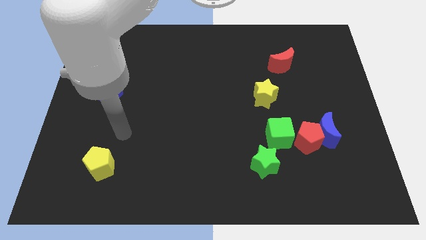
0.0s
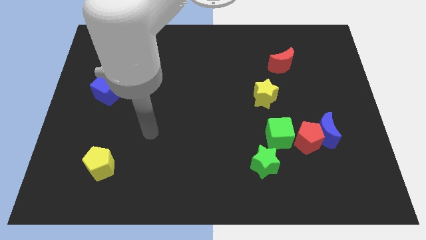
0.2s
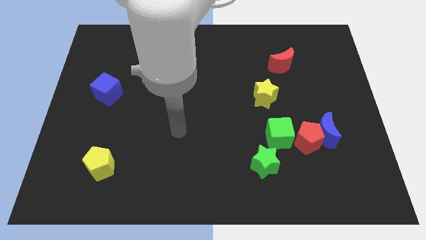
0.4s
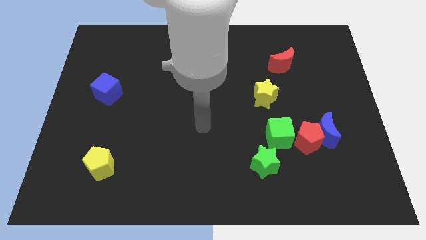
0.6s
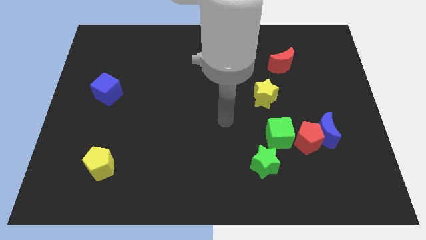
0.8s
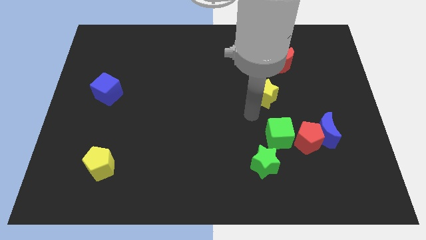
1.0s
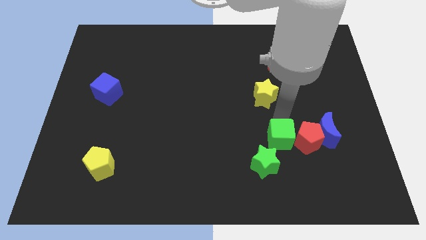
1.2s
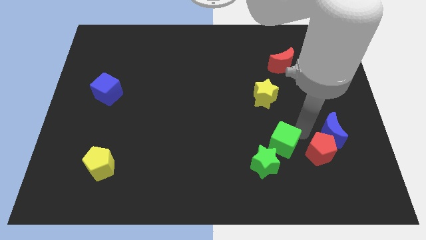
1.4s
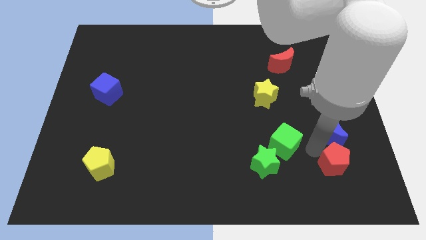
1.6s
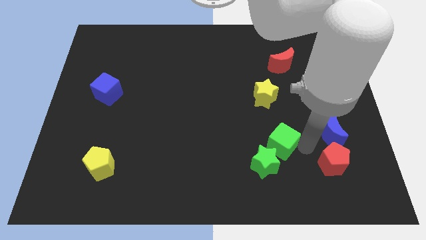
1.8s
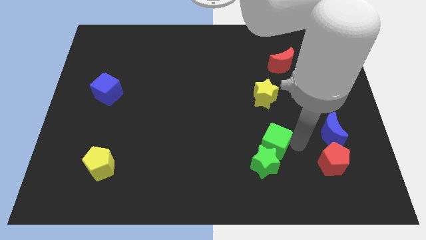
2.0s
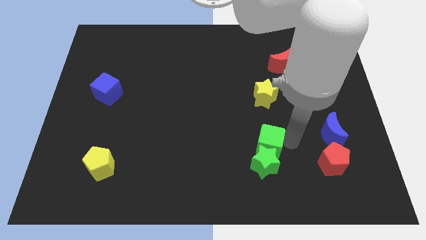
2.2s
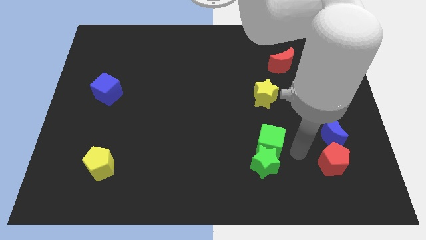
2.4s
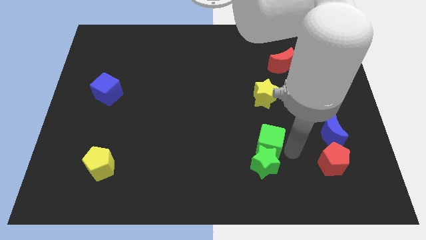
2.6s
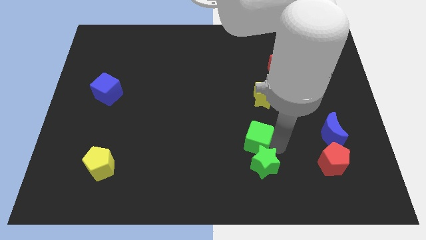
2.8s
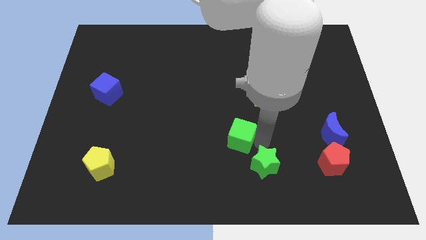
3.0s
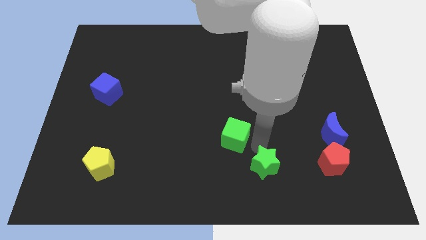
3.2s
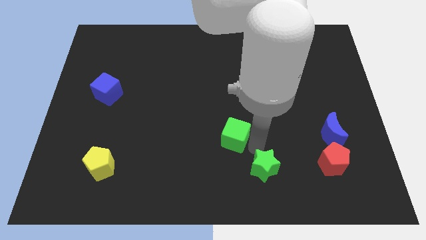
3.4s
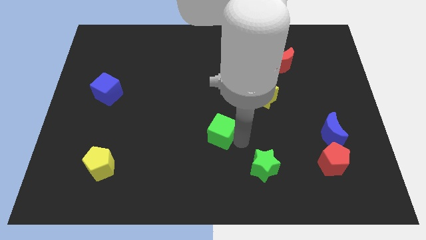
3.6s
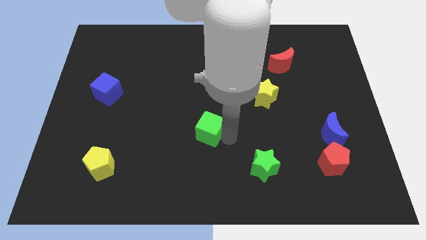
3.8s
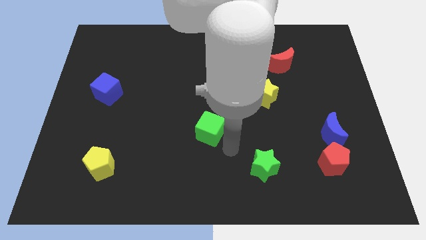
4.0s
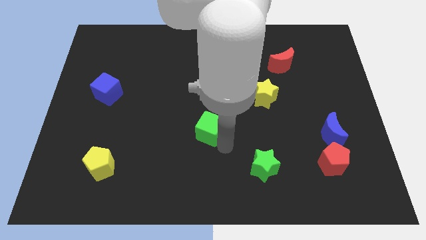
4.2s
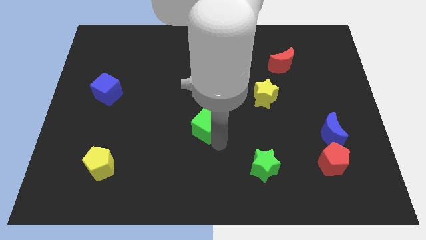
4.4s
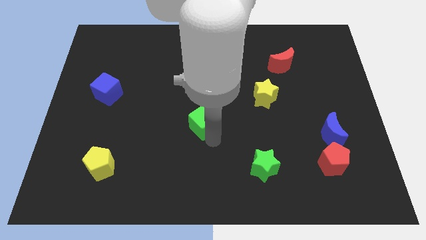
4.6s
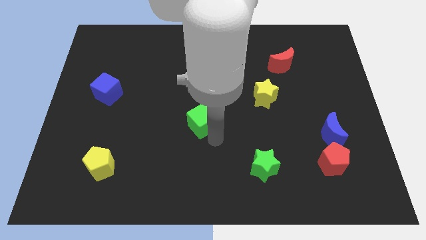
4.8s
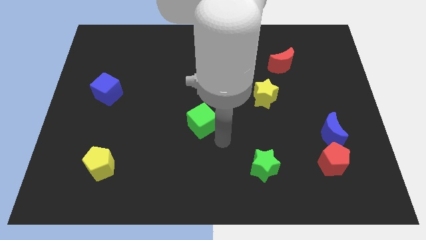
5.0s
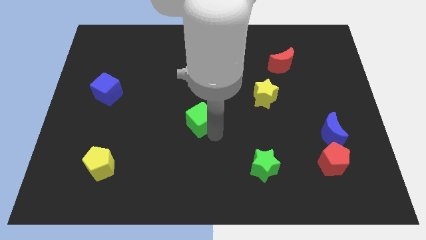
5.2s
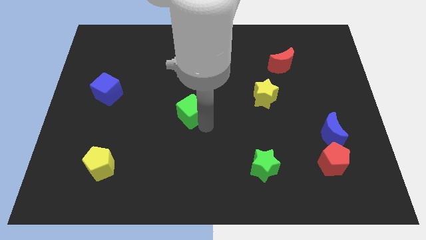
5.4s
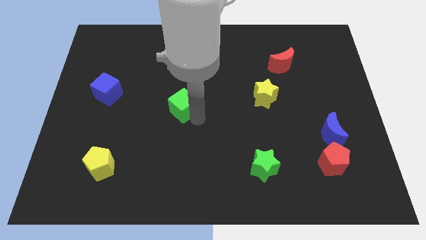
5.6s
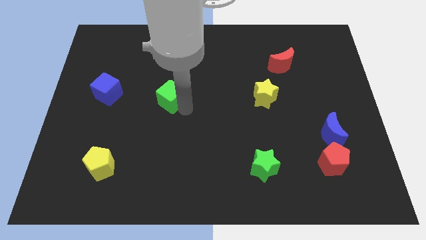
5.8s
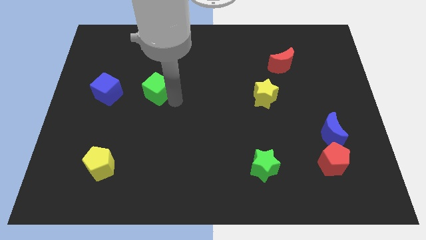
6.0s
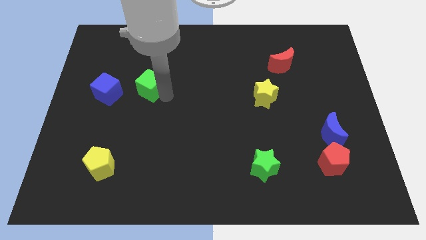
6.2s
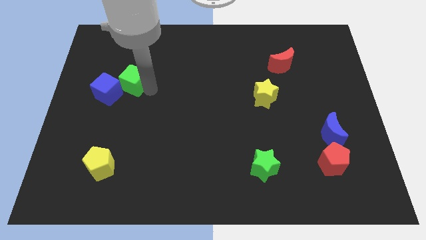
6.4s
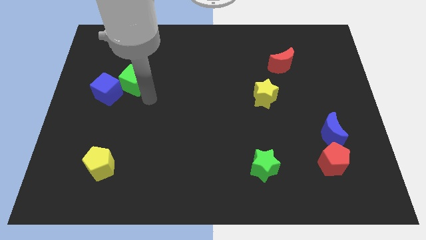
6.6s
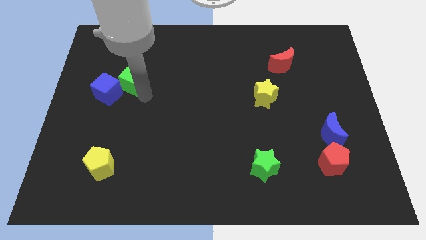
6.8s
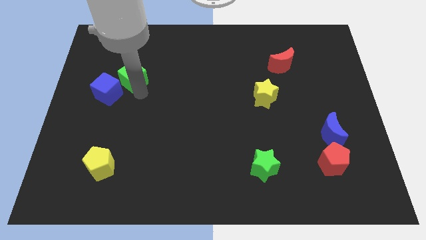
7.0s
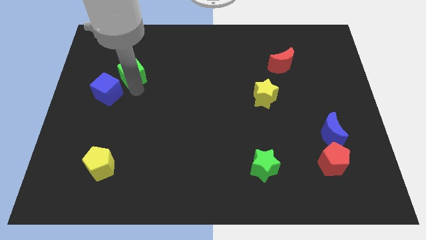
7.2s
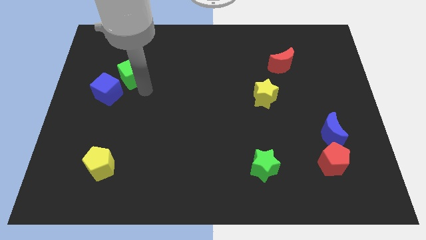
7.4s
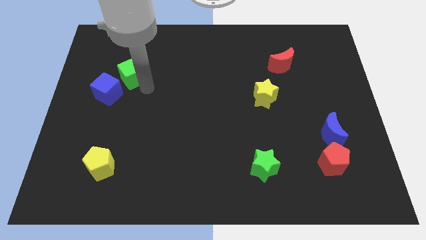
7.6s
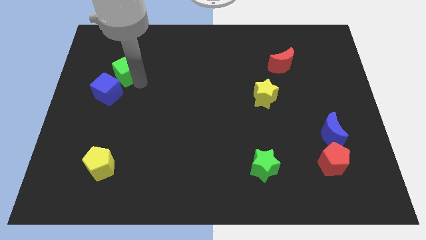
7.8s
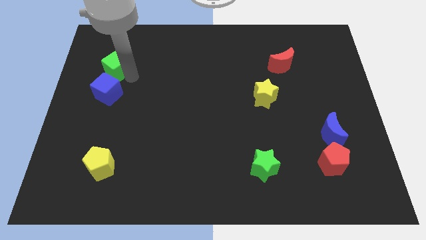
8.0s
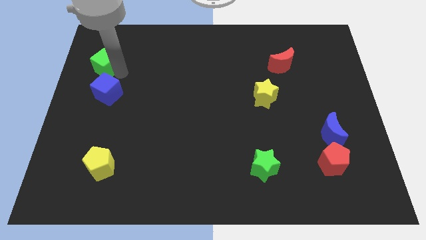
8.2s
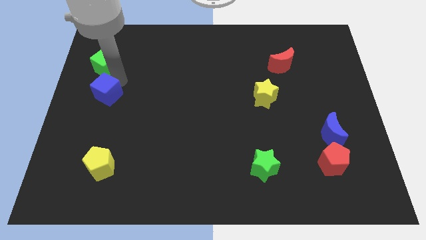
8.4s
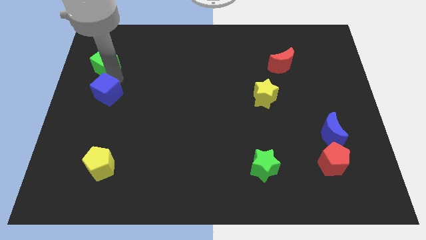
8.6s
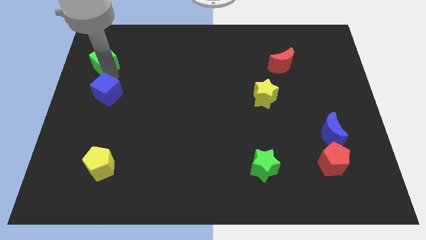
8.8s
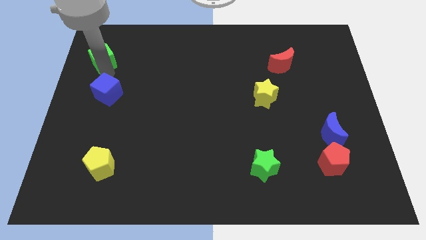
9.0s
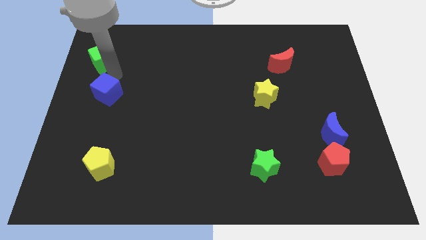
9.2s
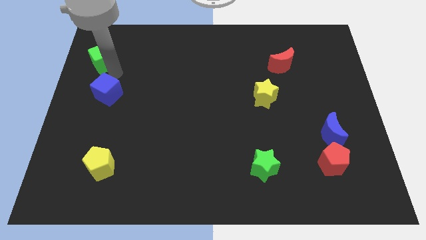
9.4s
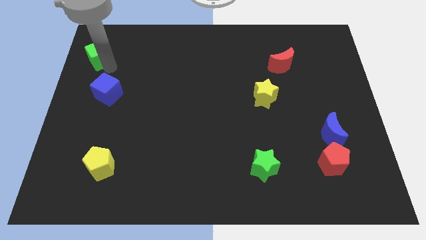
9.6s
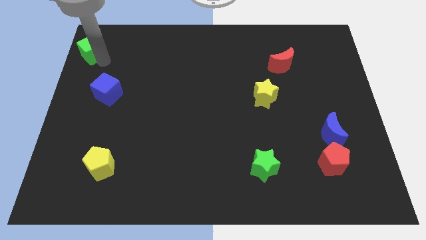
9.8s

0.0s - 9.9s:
slide the green cube to the top left corner

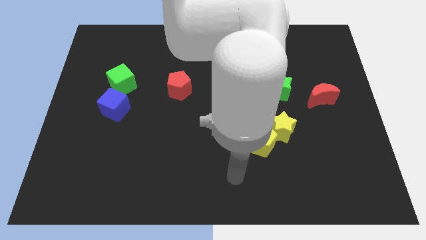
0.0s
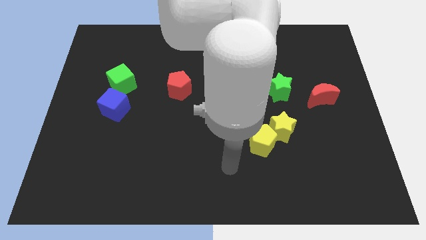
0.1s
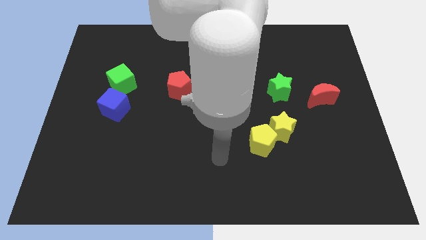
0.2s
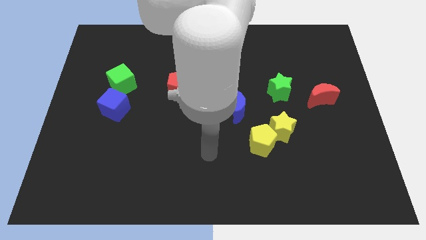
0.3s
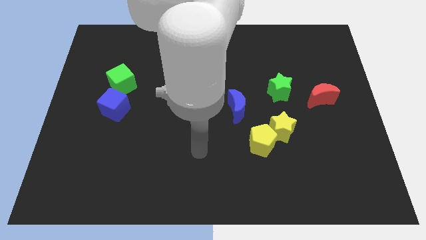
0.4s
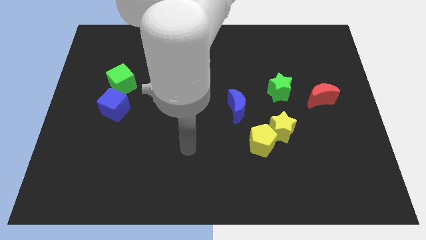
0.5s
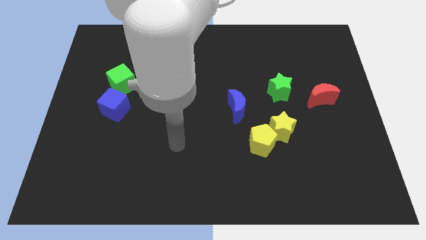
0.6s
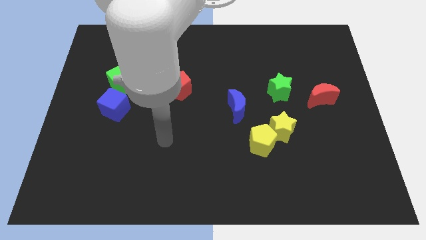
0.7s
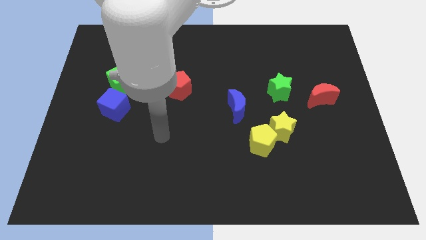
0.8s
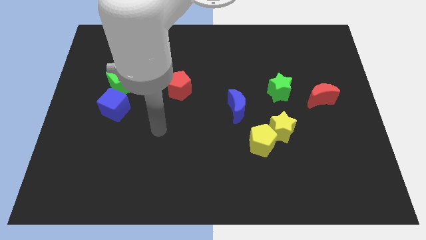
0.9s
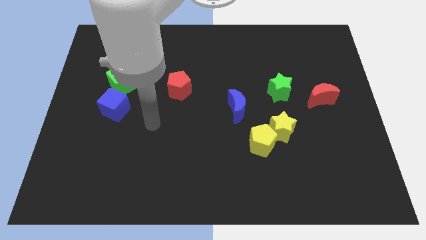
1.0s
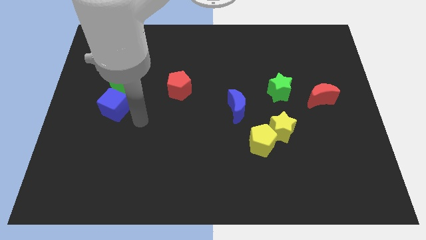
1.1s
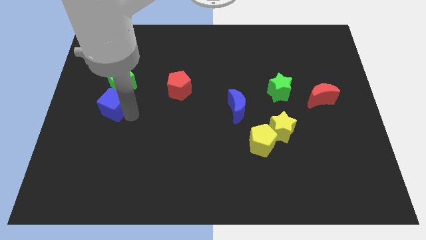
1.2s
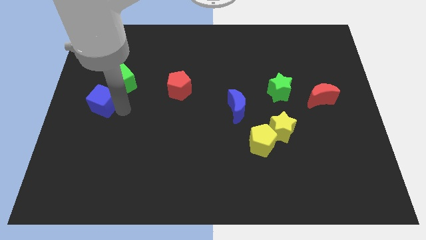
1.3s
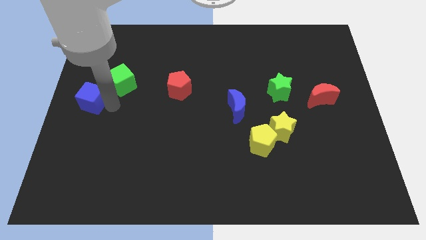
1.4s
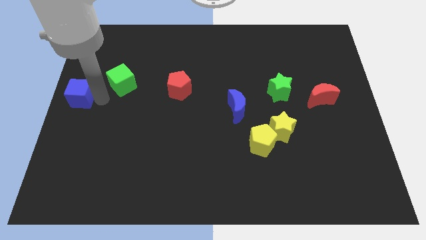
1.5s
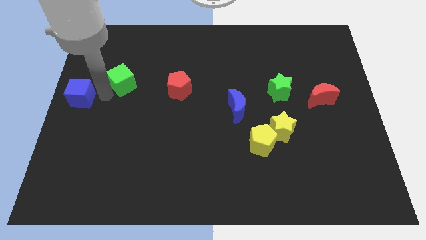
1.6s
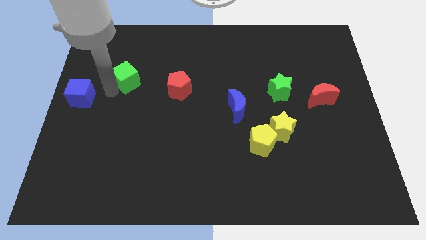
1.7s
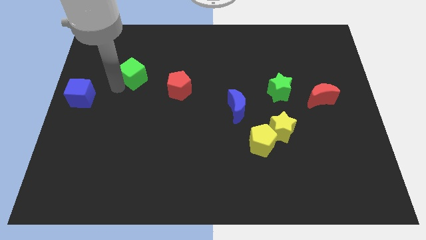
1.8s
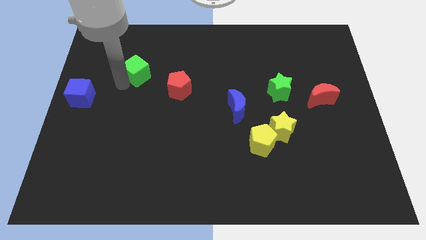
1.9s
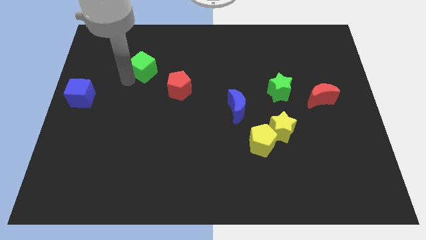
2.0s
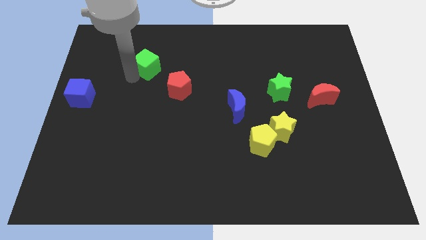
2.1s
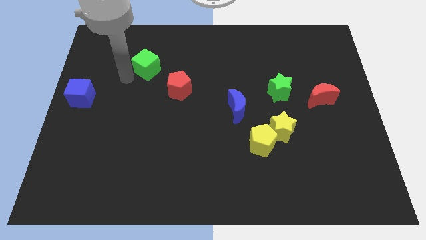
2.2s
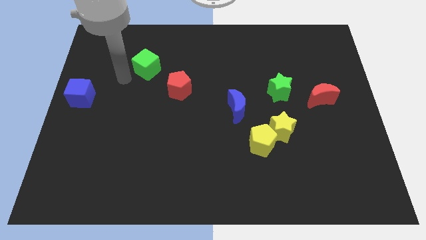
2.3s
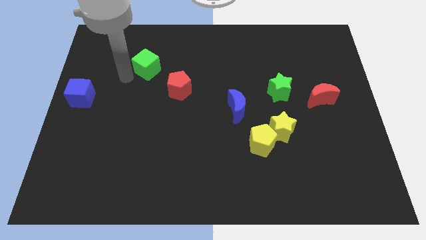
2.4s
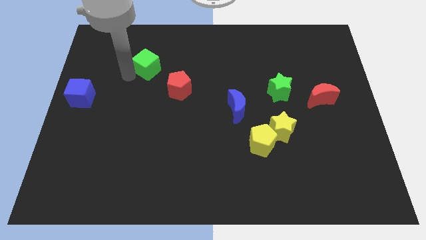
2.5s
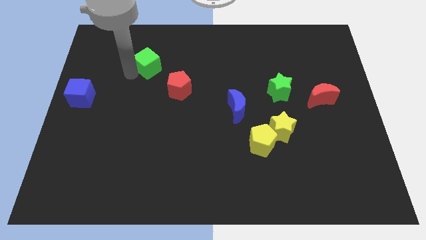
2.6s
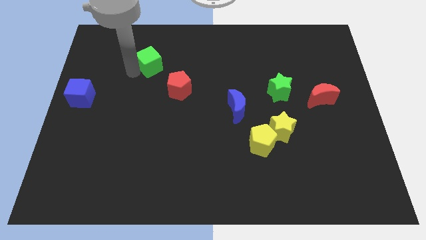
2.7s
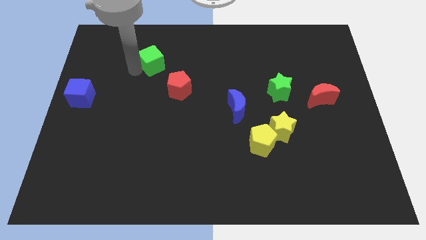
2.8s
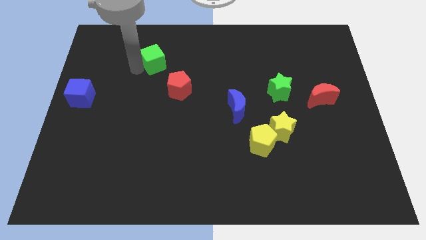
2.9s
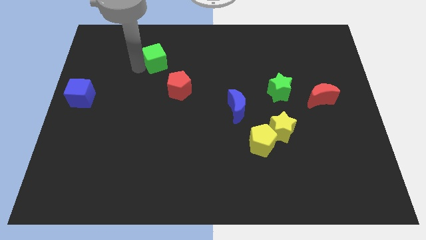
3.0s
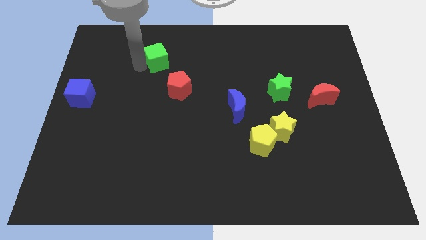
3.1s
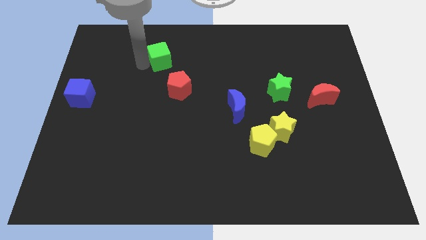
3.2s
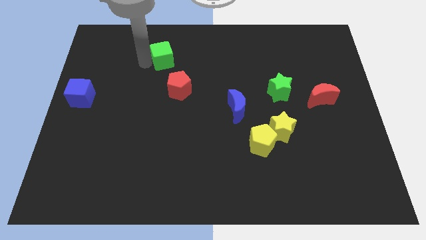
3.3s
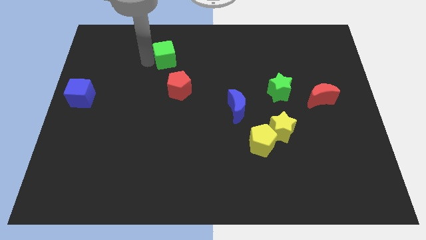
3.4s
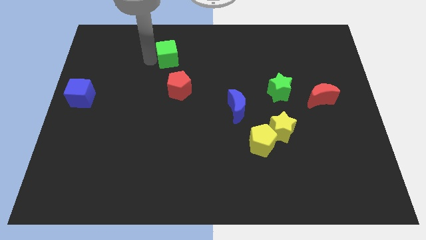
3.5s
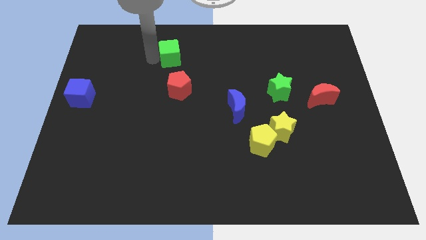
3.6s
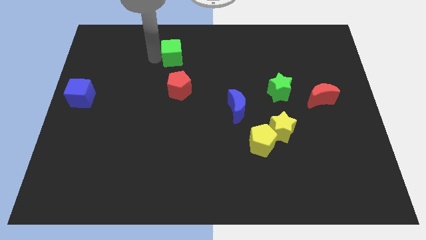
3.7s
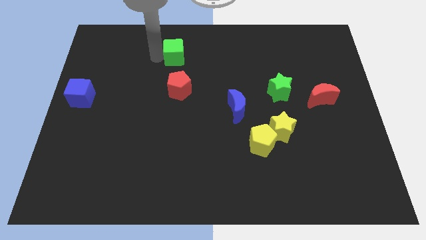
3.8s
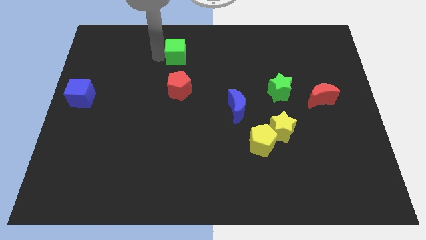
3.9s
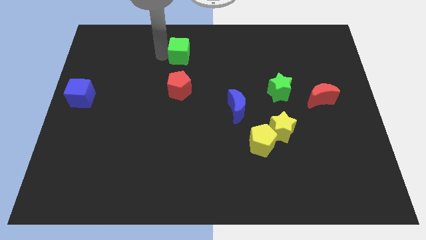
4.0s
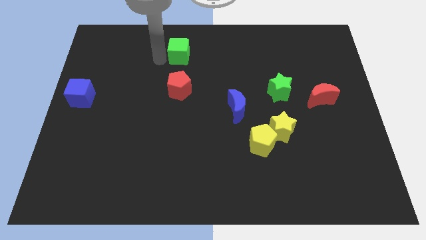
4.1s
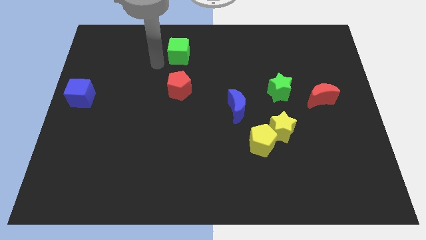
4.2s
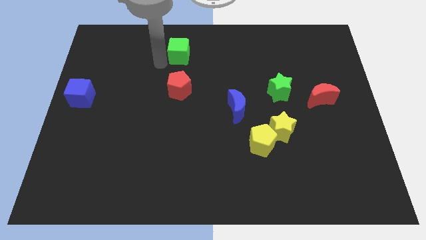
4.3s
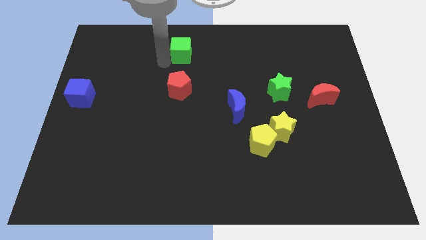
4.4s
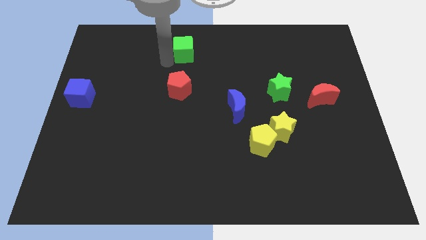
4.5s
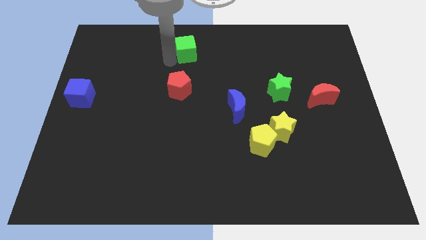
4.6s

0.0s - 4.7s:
push the green cube to the towards your base
